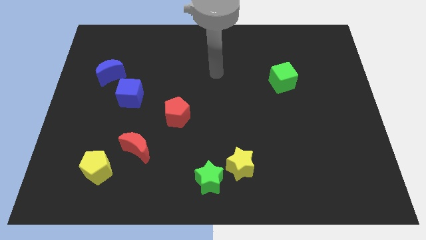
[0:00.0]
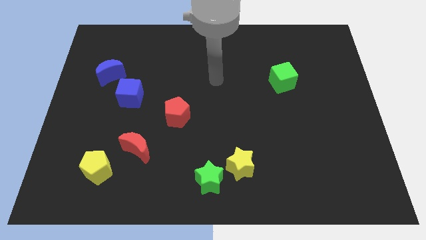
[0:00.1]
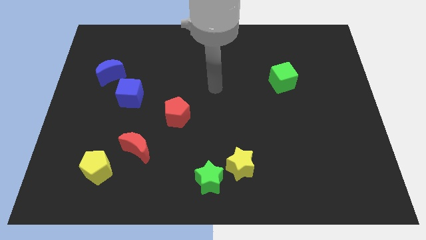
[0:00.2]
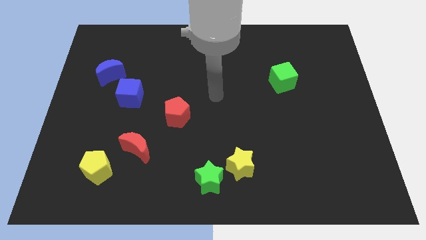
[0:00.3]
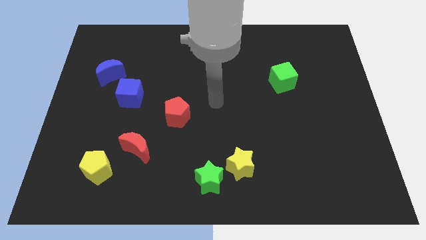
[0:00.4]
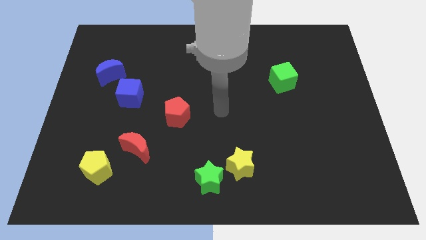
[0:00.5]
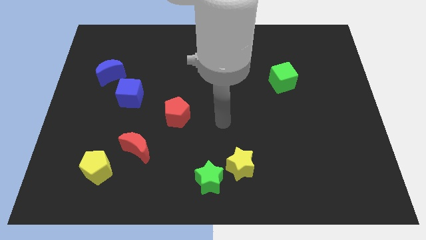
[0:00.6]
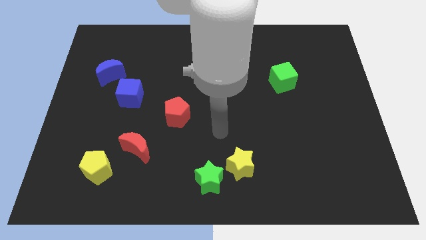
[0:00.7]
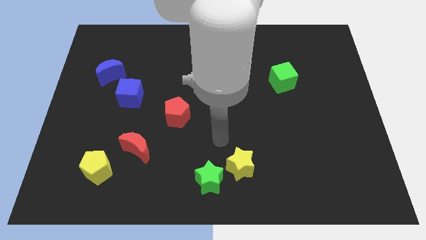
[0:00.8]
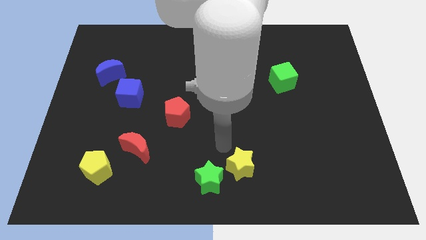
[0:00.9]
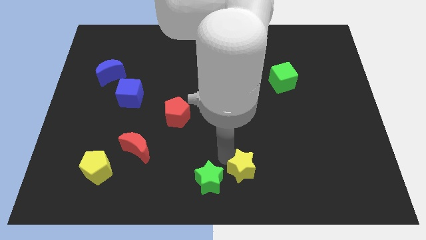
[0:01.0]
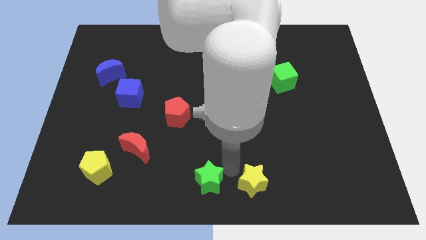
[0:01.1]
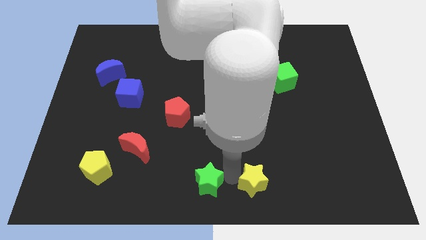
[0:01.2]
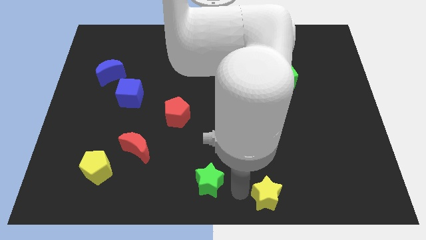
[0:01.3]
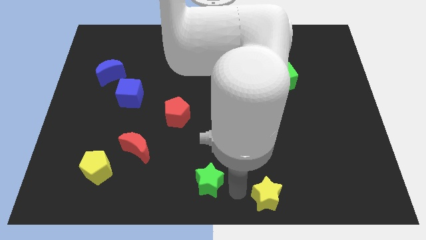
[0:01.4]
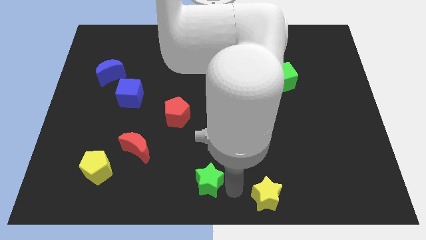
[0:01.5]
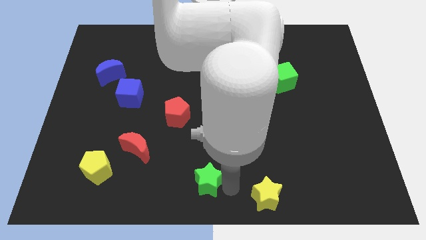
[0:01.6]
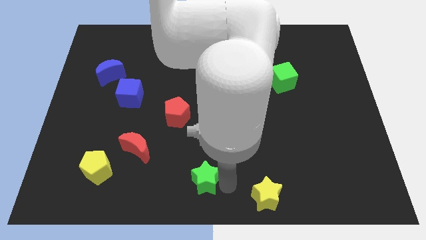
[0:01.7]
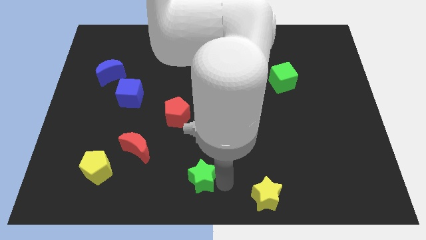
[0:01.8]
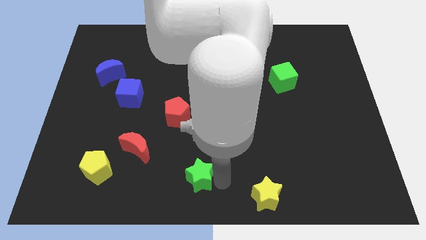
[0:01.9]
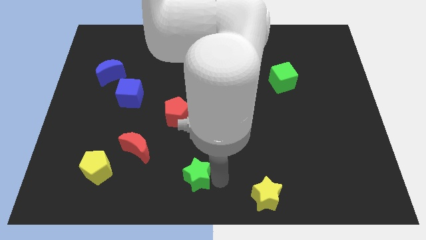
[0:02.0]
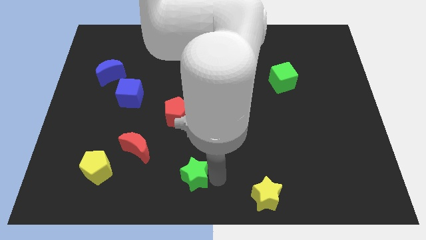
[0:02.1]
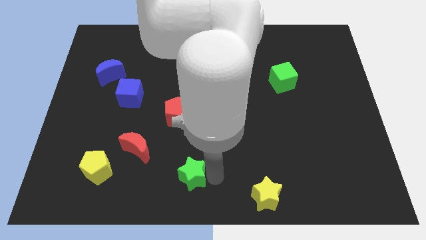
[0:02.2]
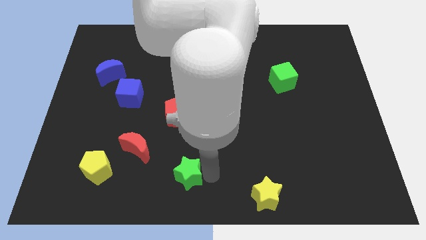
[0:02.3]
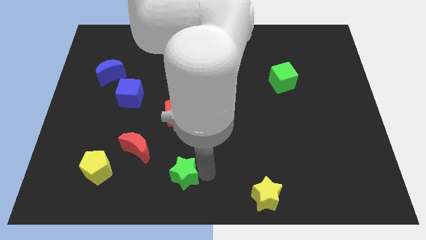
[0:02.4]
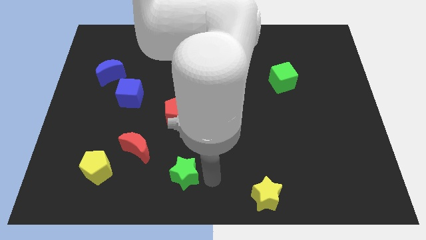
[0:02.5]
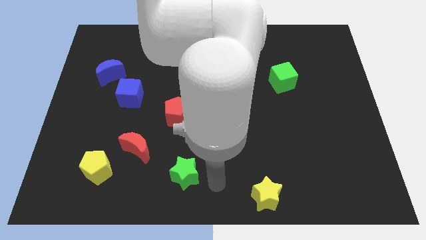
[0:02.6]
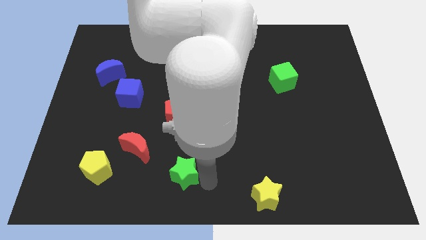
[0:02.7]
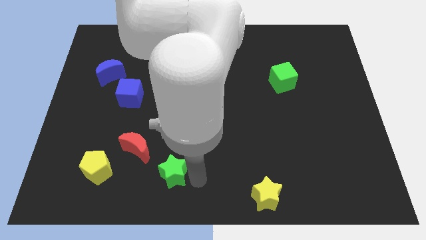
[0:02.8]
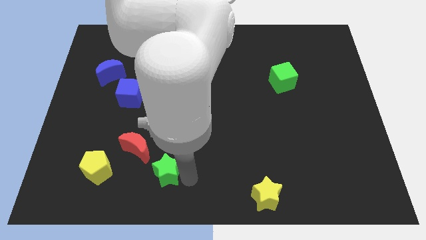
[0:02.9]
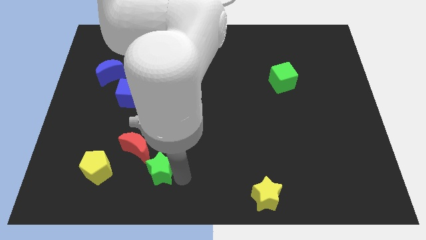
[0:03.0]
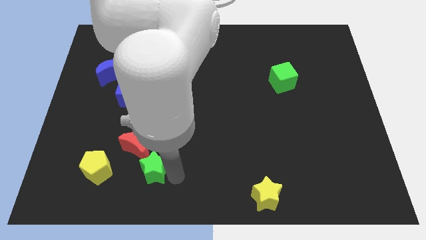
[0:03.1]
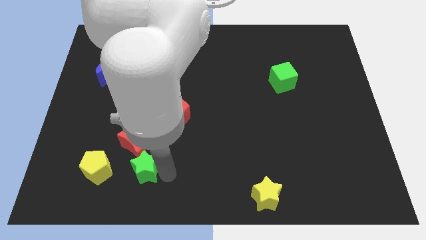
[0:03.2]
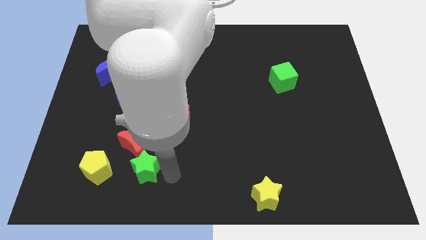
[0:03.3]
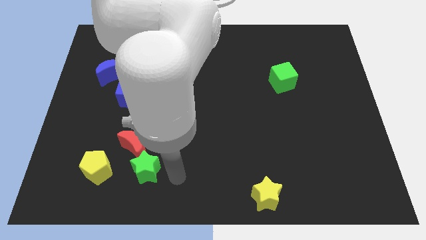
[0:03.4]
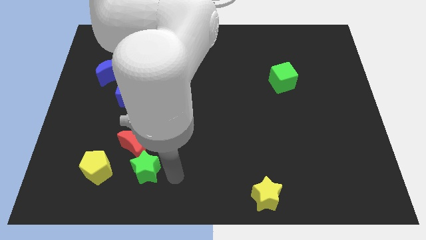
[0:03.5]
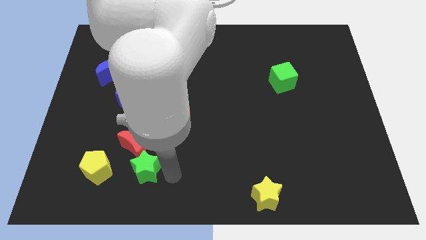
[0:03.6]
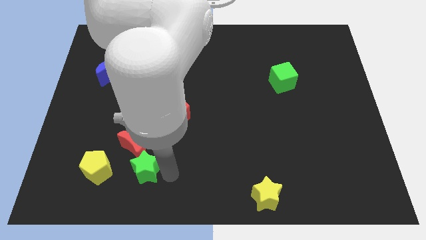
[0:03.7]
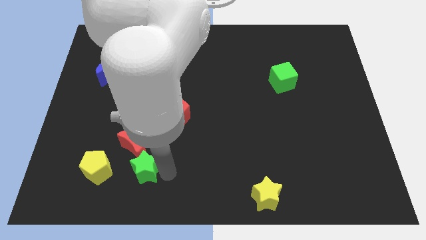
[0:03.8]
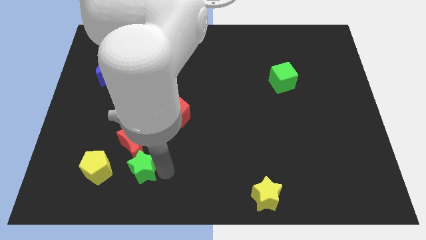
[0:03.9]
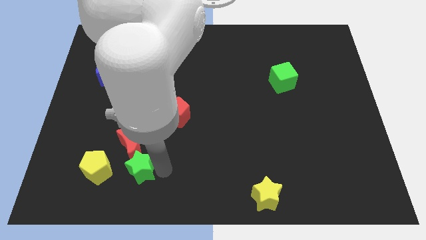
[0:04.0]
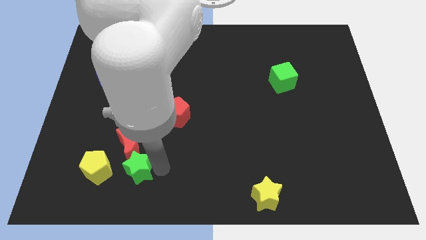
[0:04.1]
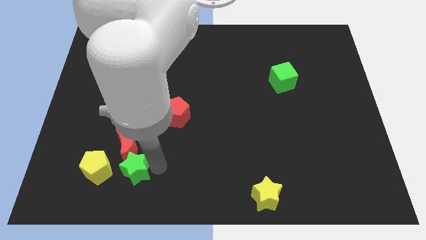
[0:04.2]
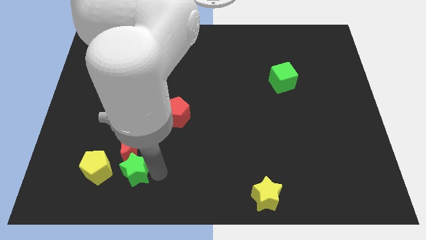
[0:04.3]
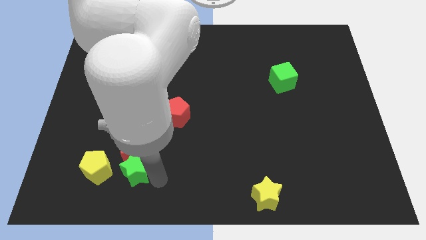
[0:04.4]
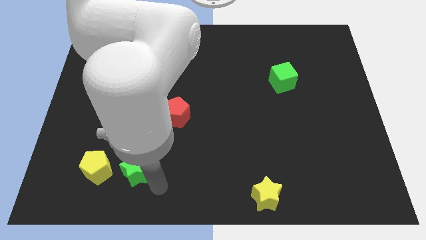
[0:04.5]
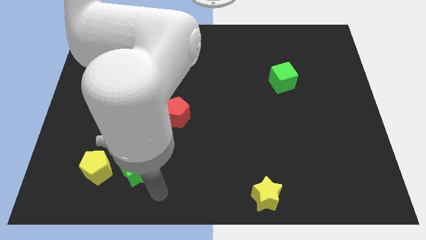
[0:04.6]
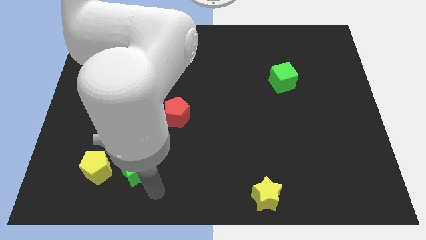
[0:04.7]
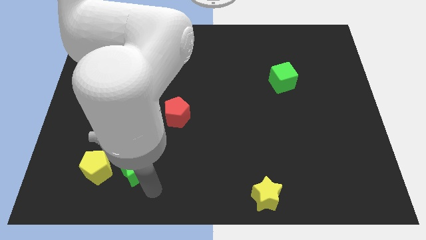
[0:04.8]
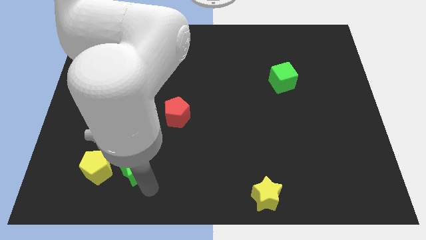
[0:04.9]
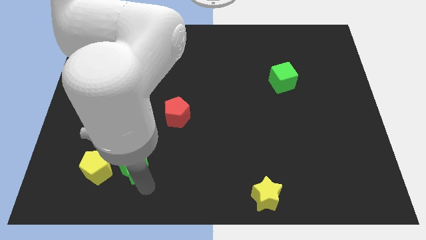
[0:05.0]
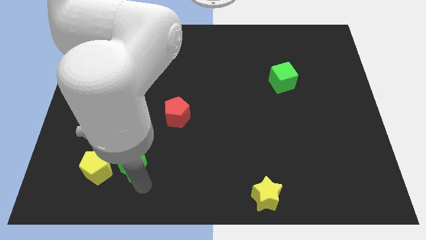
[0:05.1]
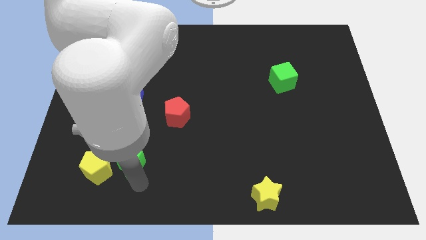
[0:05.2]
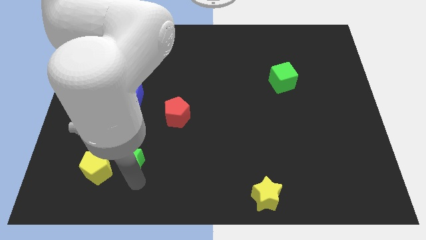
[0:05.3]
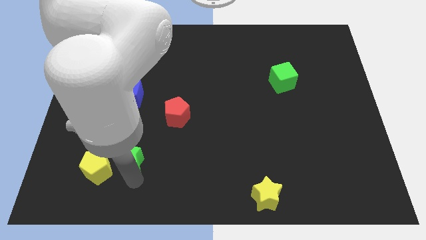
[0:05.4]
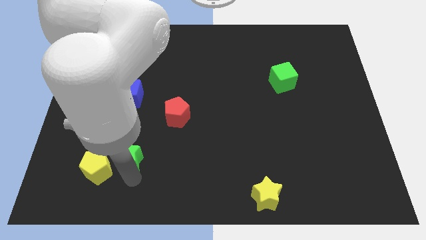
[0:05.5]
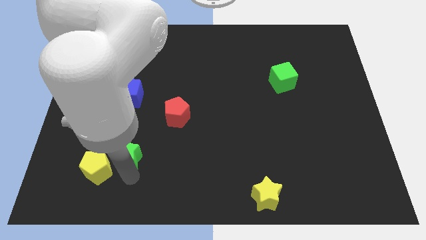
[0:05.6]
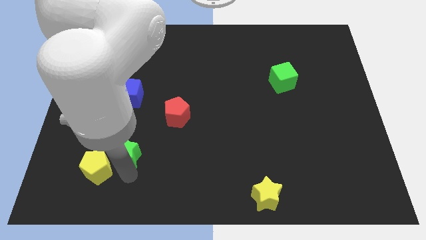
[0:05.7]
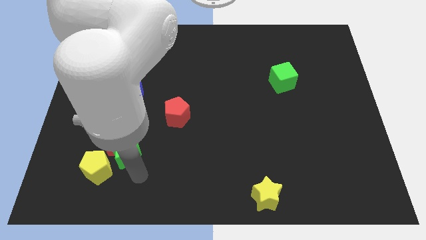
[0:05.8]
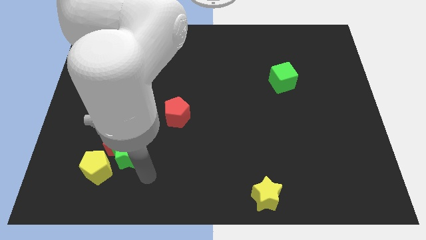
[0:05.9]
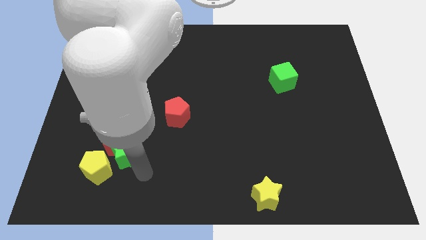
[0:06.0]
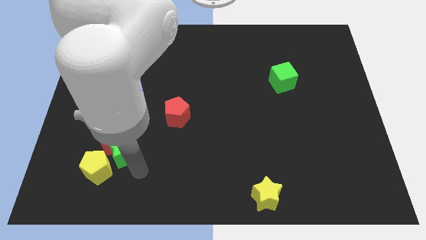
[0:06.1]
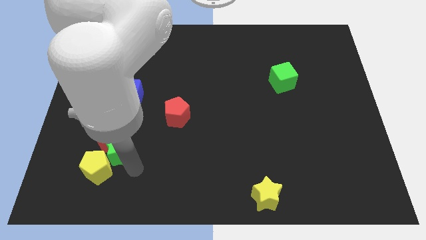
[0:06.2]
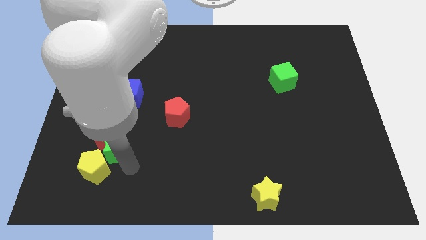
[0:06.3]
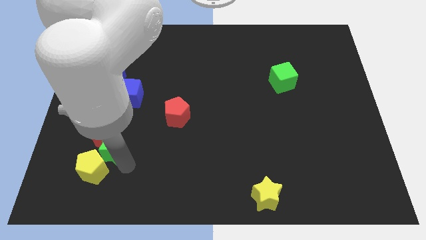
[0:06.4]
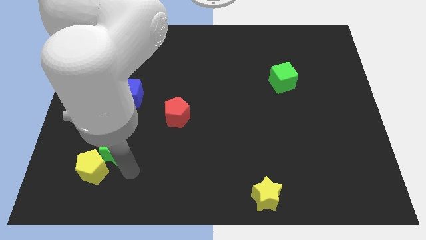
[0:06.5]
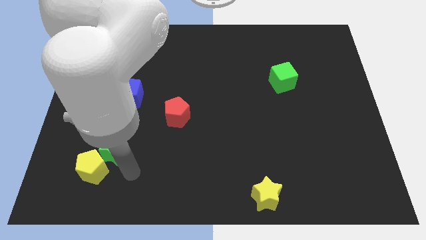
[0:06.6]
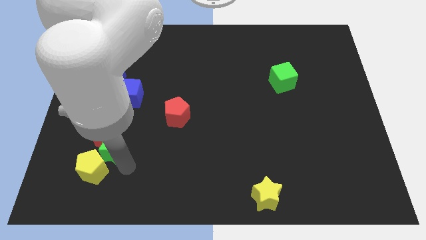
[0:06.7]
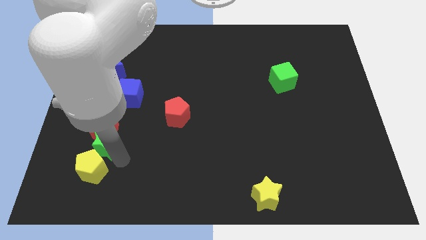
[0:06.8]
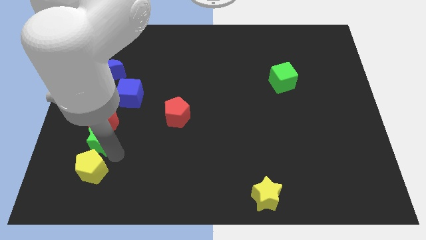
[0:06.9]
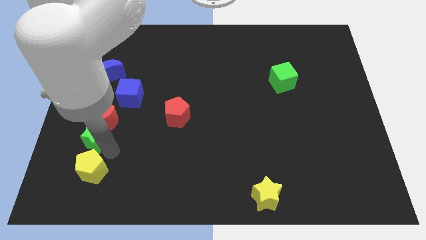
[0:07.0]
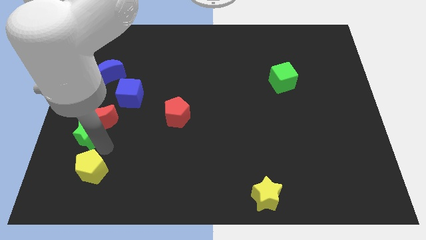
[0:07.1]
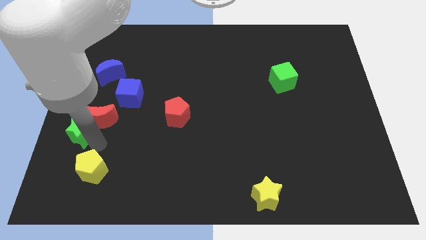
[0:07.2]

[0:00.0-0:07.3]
put the green star to the center left
